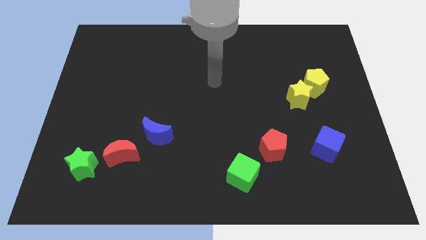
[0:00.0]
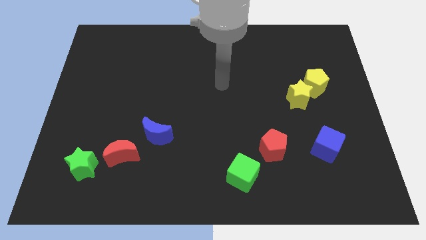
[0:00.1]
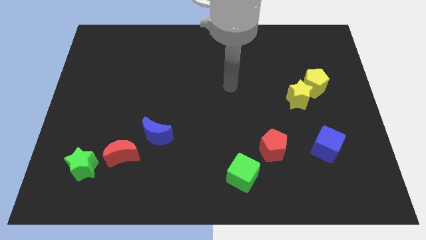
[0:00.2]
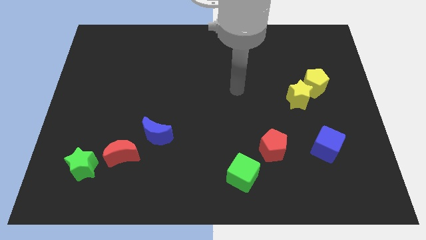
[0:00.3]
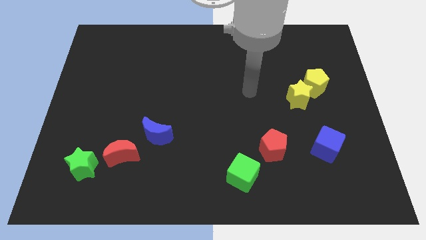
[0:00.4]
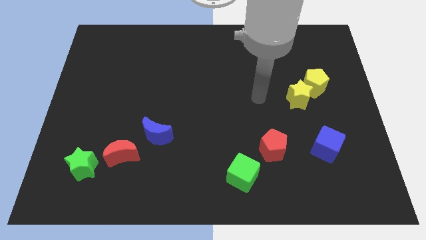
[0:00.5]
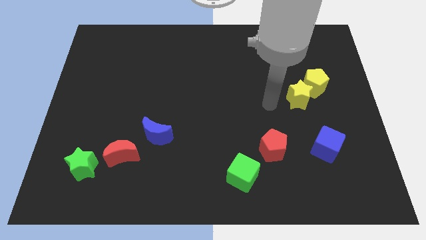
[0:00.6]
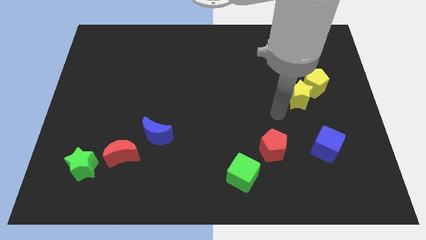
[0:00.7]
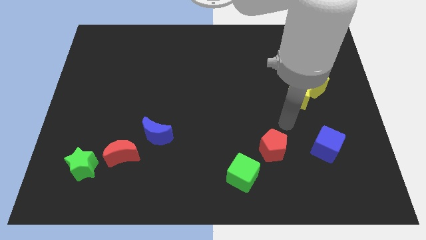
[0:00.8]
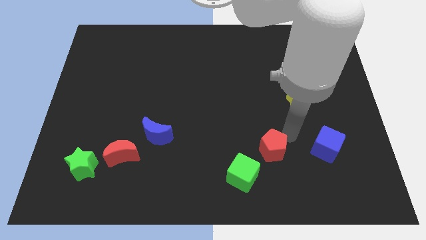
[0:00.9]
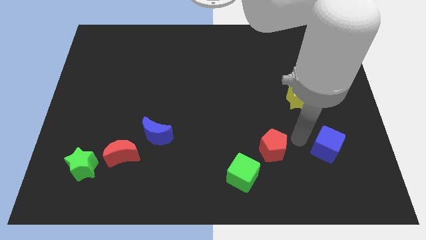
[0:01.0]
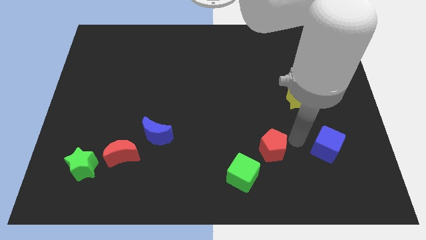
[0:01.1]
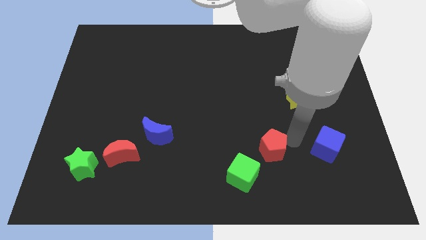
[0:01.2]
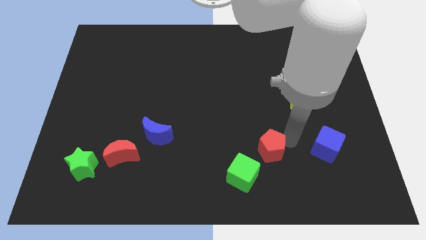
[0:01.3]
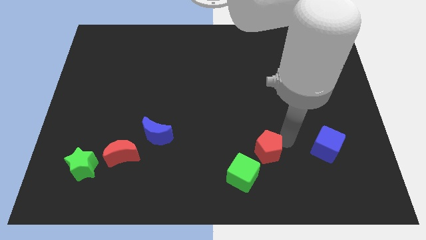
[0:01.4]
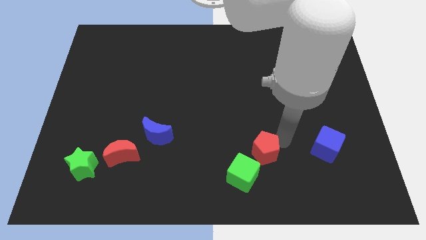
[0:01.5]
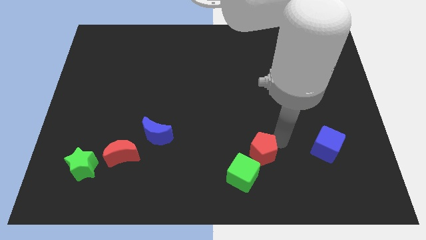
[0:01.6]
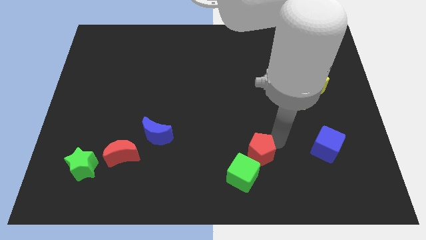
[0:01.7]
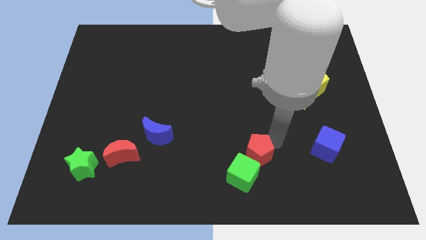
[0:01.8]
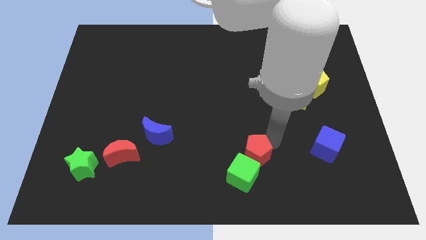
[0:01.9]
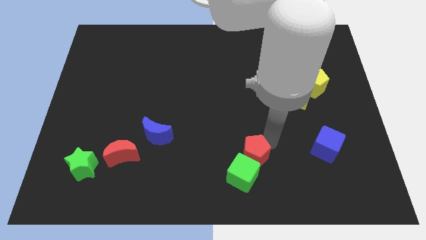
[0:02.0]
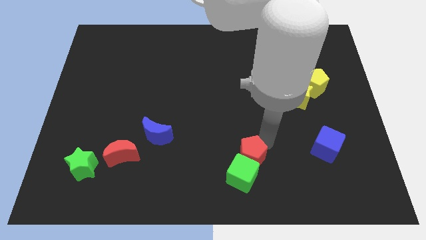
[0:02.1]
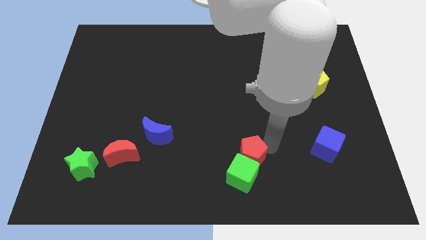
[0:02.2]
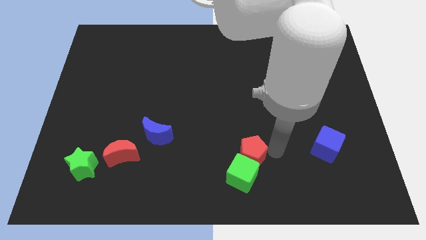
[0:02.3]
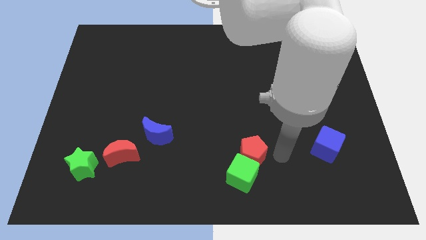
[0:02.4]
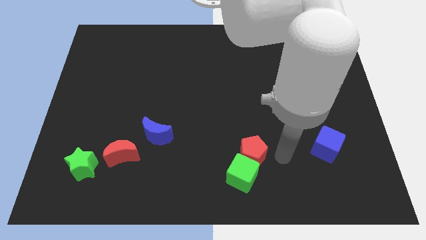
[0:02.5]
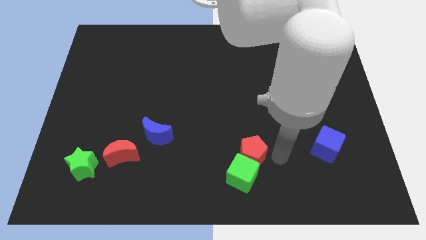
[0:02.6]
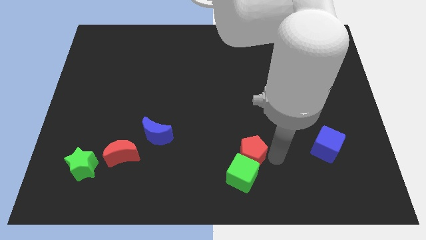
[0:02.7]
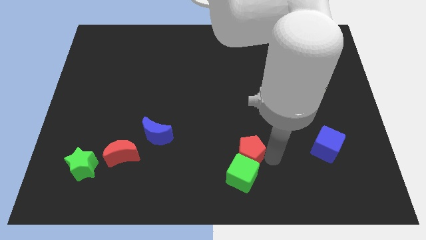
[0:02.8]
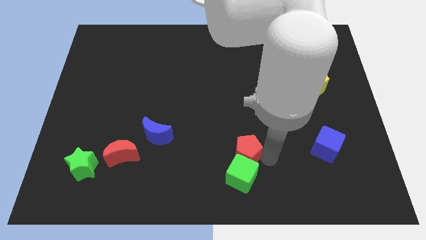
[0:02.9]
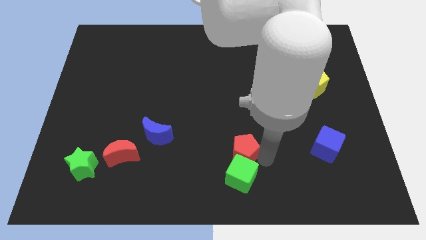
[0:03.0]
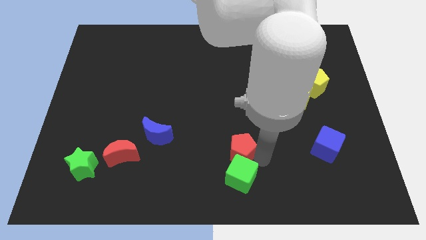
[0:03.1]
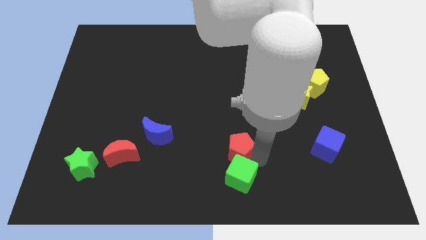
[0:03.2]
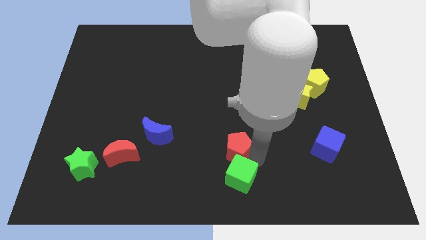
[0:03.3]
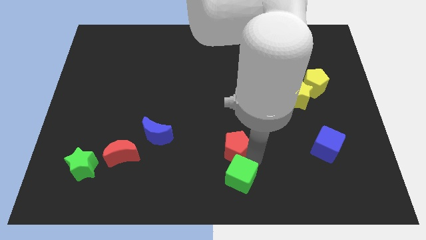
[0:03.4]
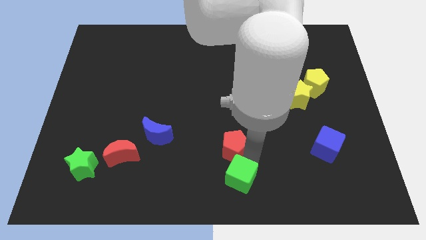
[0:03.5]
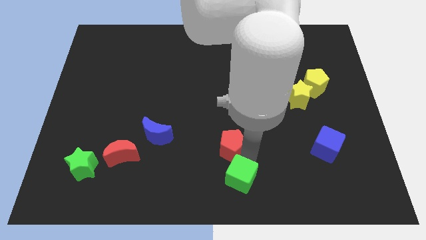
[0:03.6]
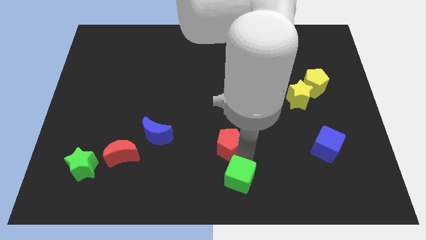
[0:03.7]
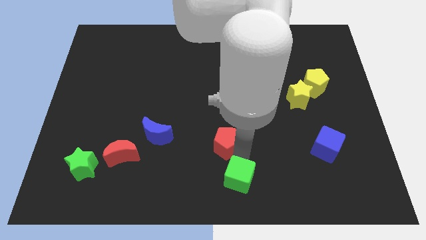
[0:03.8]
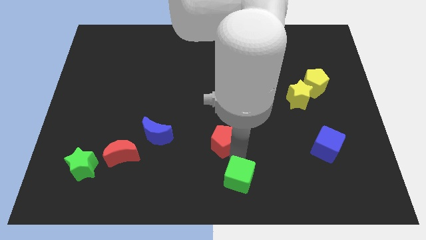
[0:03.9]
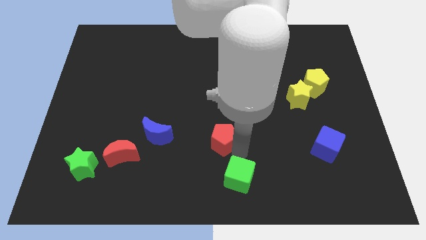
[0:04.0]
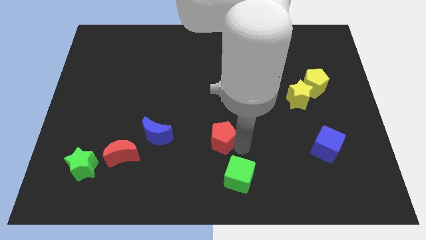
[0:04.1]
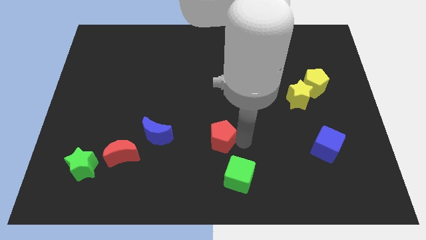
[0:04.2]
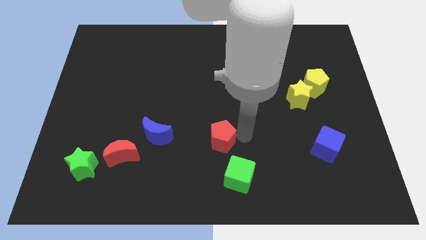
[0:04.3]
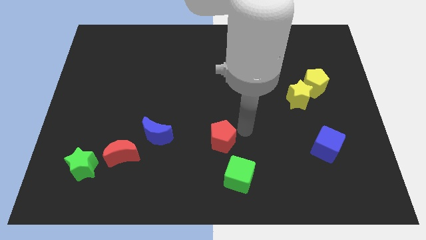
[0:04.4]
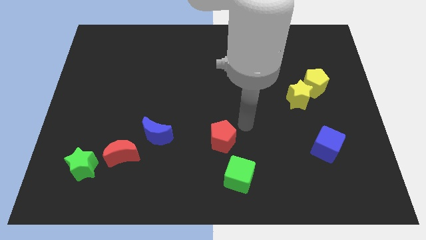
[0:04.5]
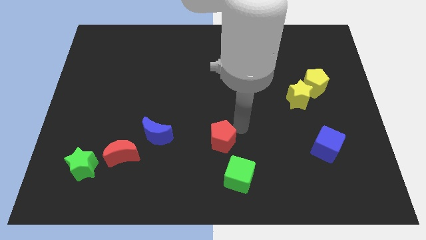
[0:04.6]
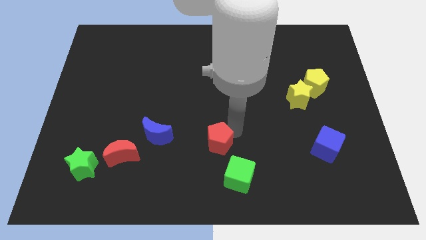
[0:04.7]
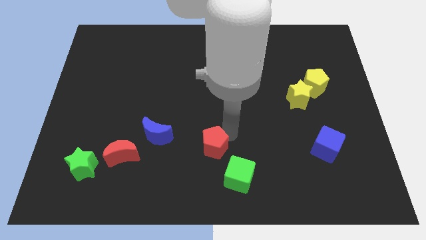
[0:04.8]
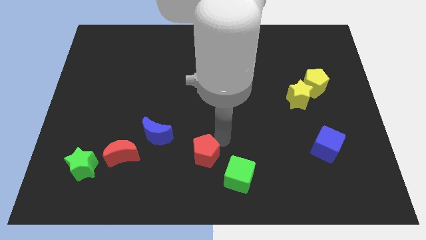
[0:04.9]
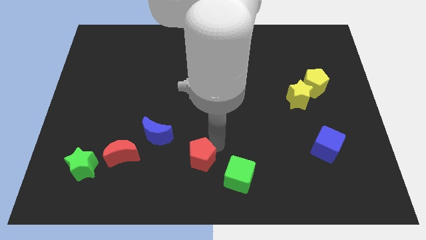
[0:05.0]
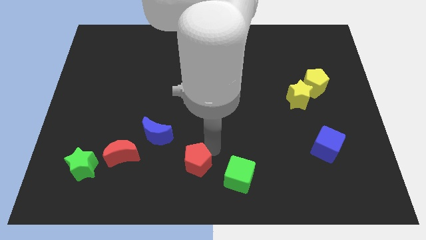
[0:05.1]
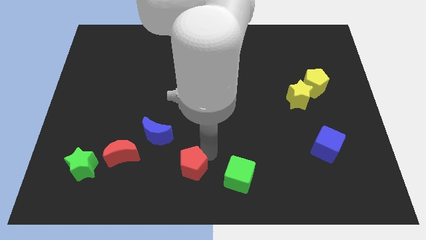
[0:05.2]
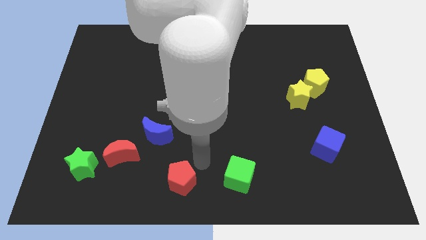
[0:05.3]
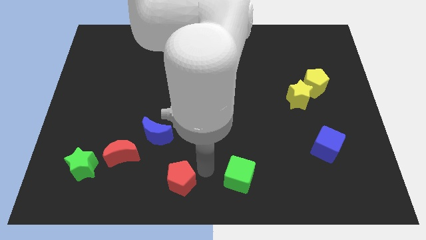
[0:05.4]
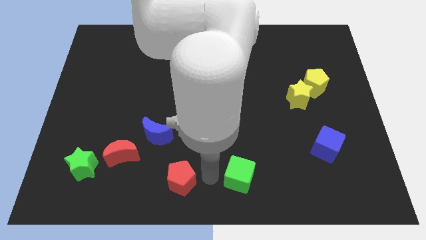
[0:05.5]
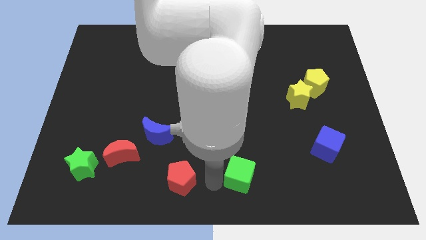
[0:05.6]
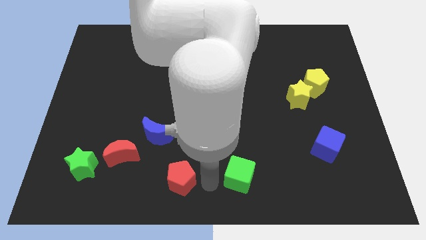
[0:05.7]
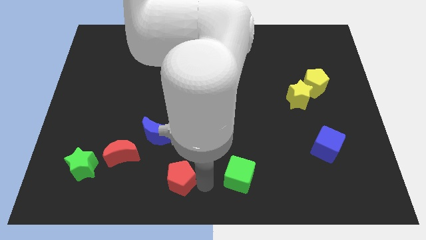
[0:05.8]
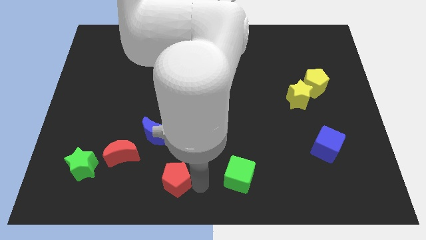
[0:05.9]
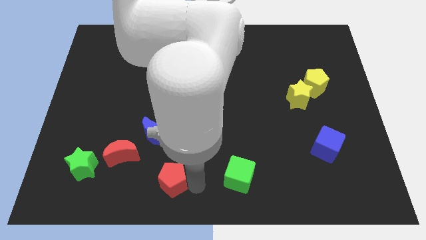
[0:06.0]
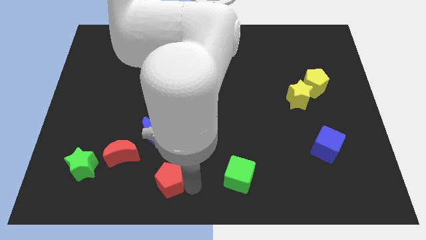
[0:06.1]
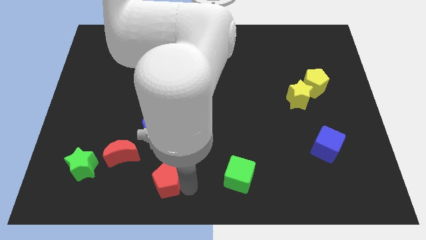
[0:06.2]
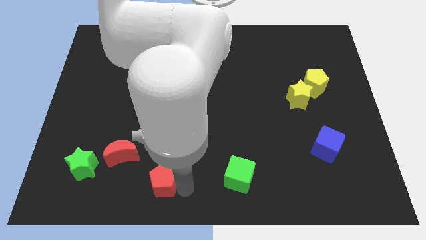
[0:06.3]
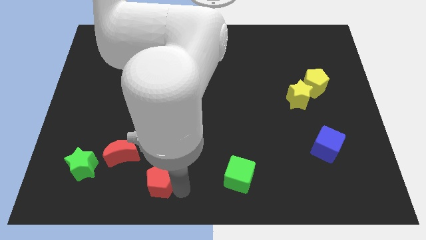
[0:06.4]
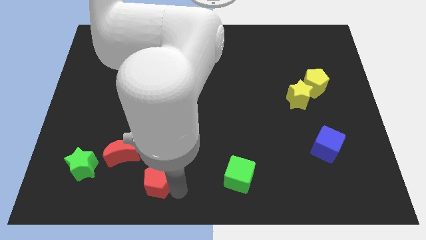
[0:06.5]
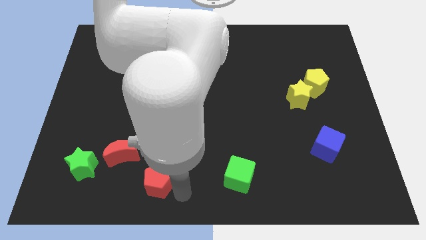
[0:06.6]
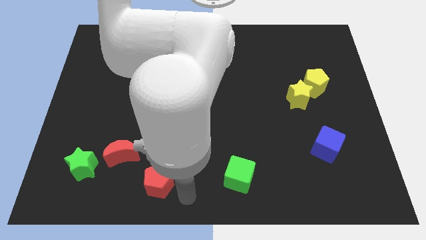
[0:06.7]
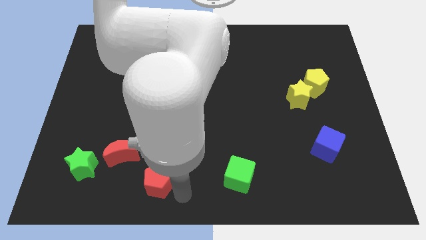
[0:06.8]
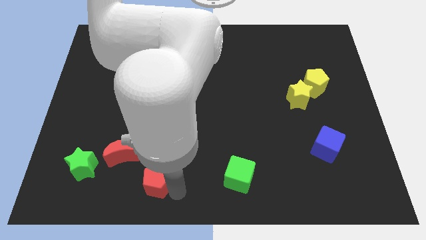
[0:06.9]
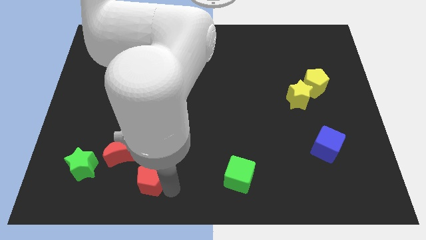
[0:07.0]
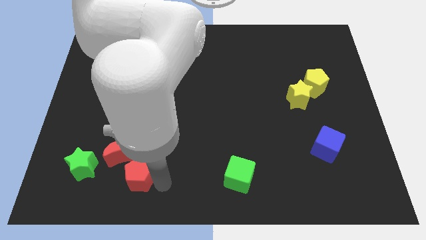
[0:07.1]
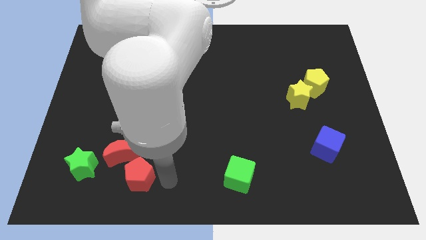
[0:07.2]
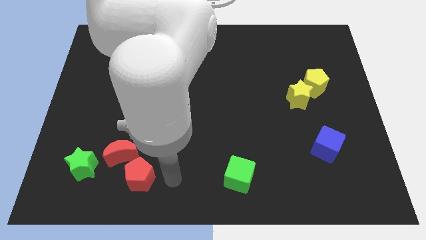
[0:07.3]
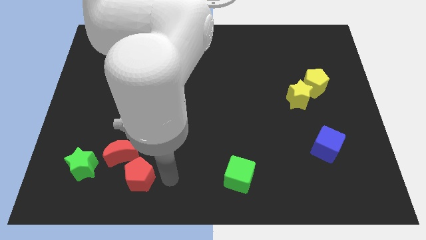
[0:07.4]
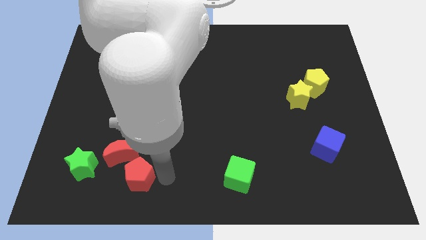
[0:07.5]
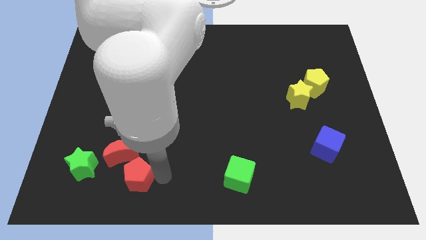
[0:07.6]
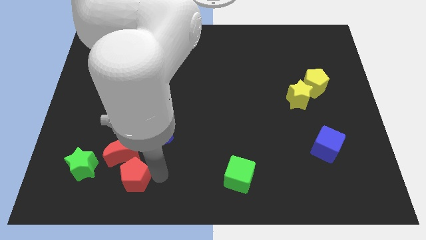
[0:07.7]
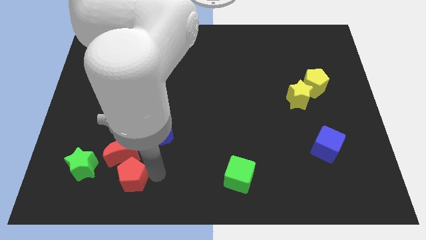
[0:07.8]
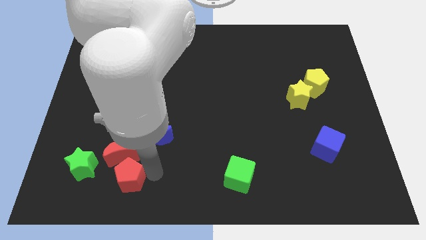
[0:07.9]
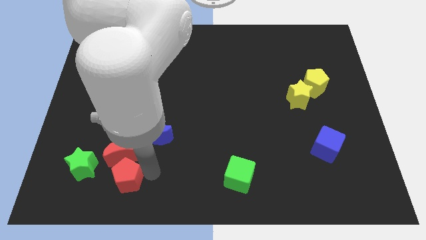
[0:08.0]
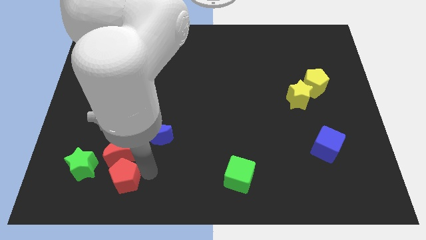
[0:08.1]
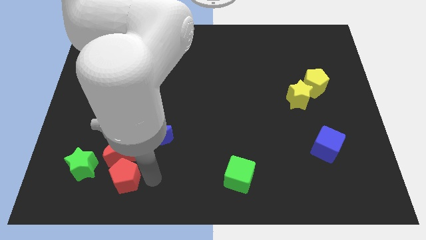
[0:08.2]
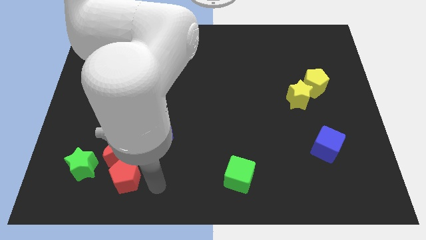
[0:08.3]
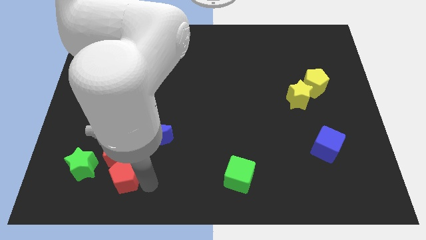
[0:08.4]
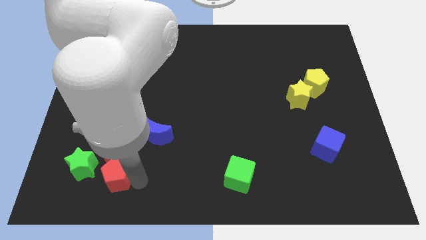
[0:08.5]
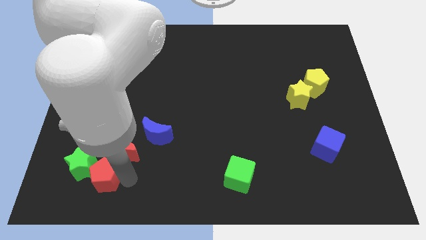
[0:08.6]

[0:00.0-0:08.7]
slide the red pentagon towards the green star
